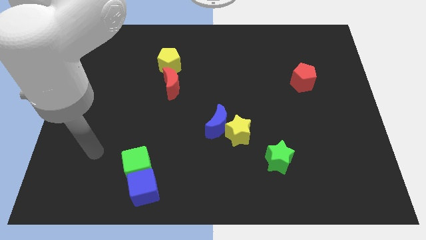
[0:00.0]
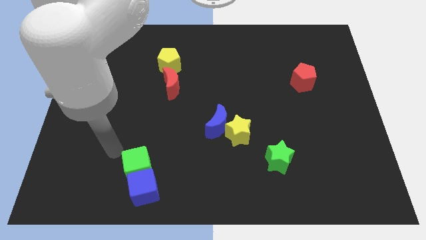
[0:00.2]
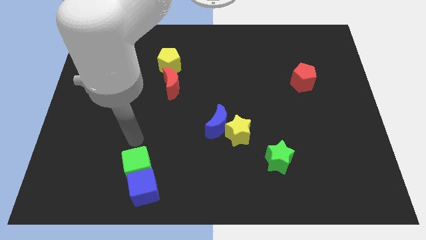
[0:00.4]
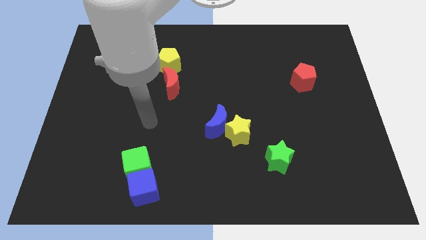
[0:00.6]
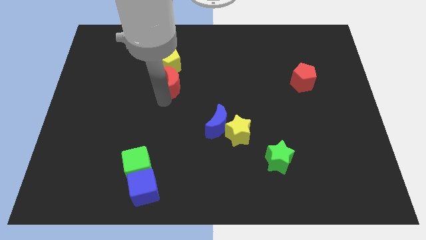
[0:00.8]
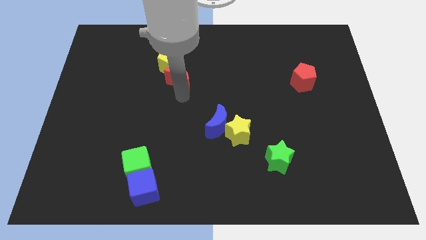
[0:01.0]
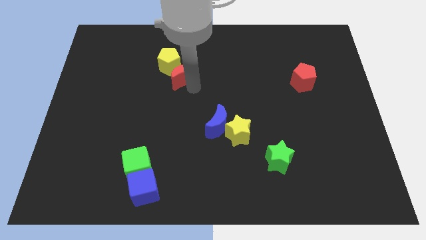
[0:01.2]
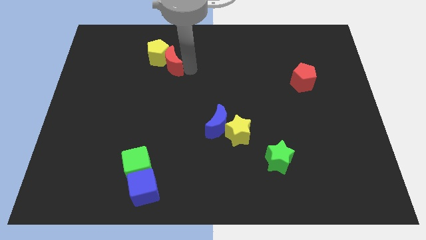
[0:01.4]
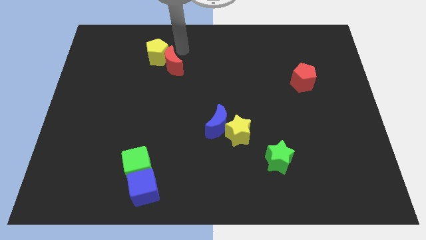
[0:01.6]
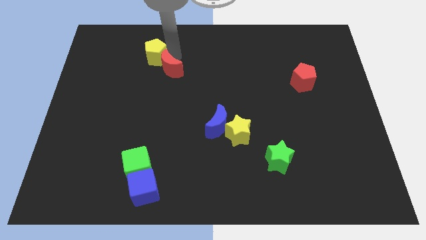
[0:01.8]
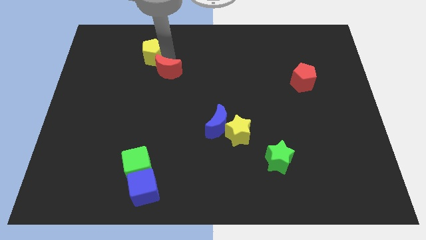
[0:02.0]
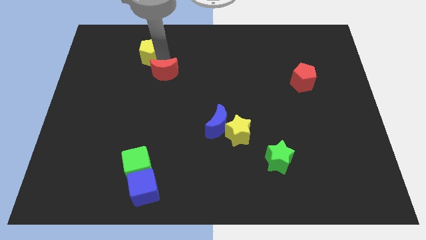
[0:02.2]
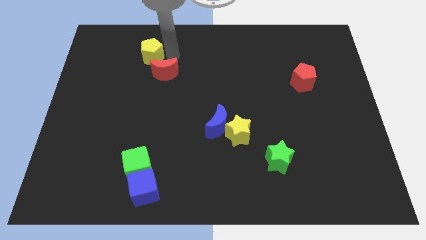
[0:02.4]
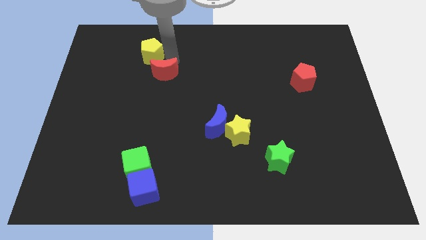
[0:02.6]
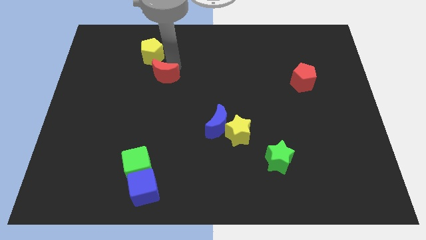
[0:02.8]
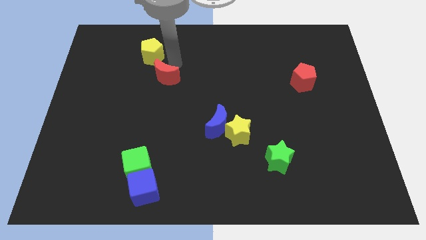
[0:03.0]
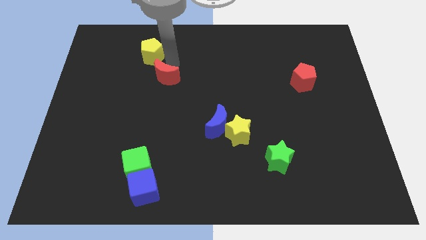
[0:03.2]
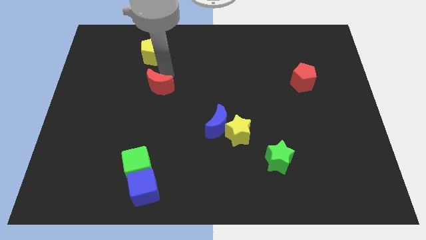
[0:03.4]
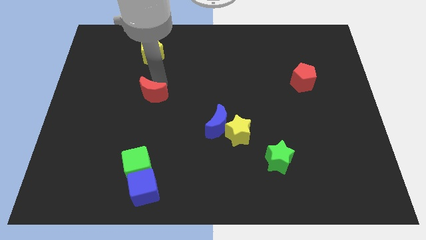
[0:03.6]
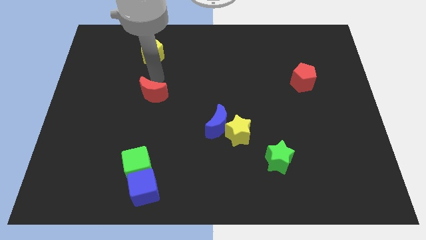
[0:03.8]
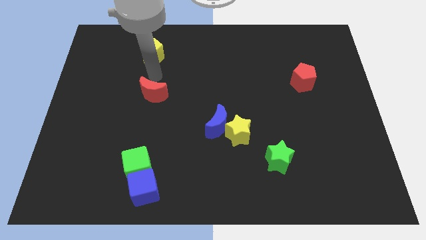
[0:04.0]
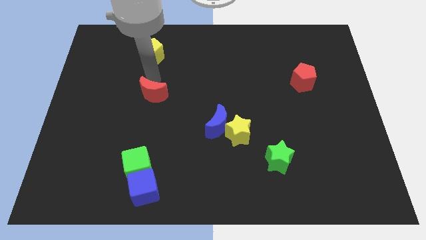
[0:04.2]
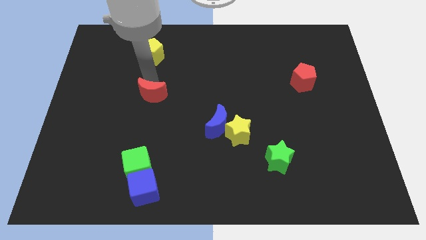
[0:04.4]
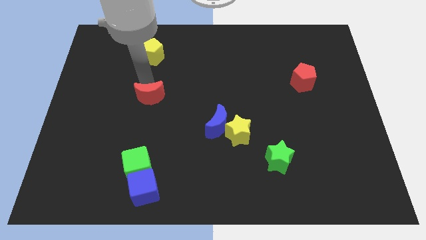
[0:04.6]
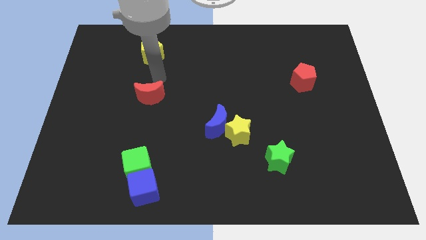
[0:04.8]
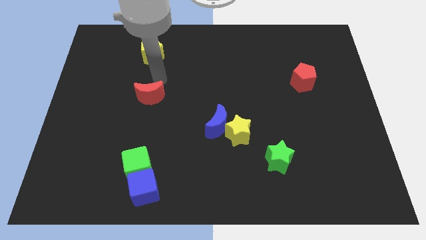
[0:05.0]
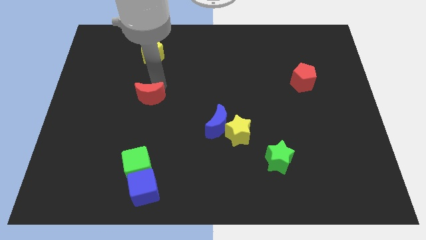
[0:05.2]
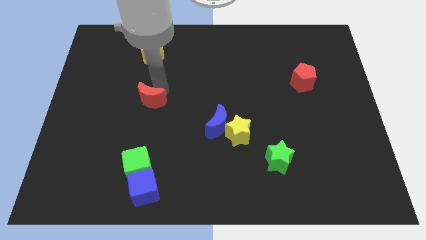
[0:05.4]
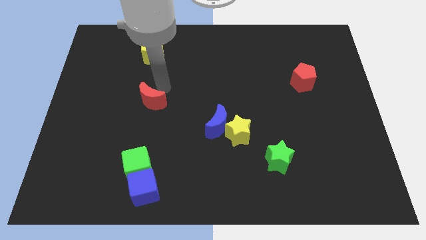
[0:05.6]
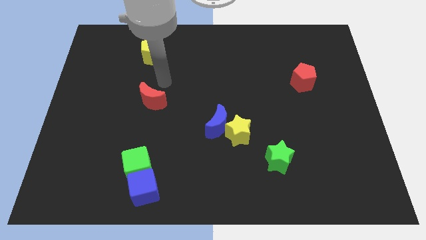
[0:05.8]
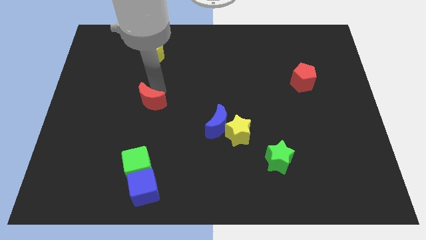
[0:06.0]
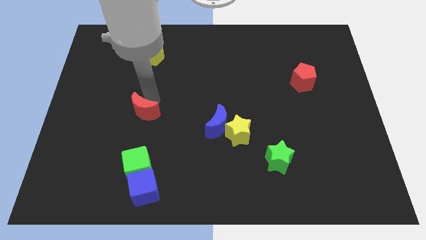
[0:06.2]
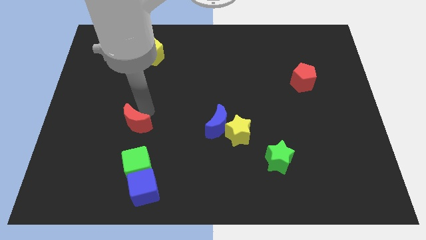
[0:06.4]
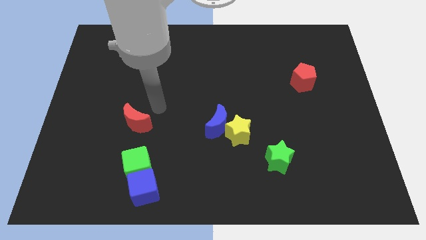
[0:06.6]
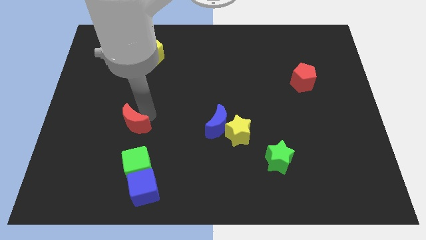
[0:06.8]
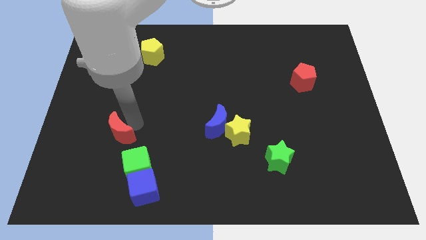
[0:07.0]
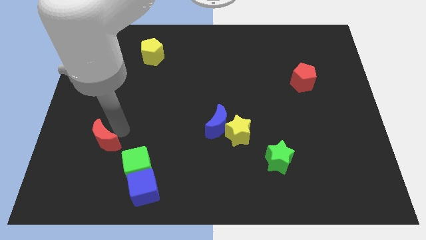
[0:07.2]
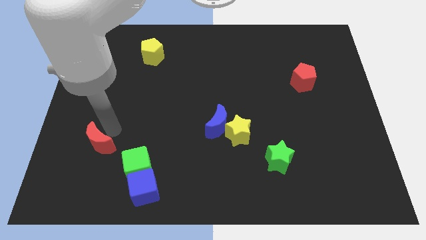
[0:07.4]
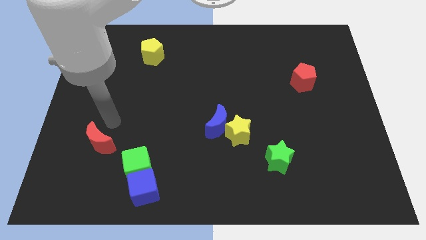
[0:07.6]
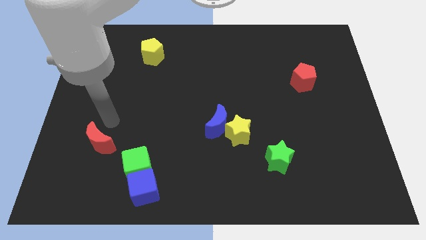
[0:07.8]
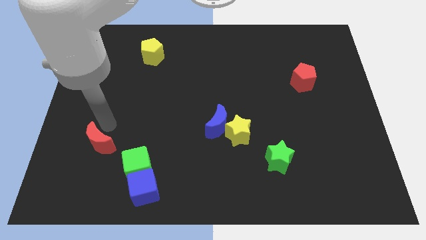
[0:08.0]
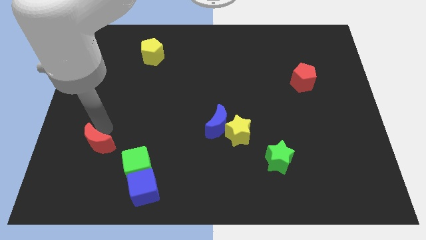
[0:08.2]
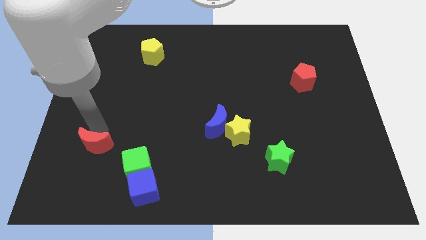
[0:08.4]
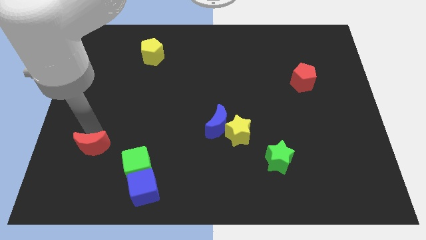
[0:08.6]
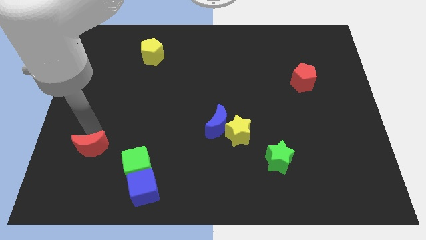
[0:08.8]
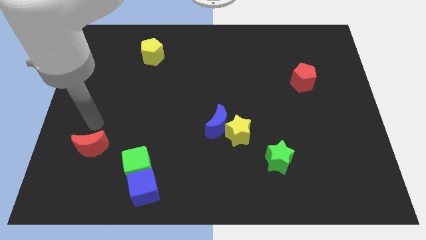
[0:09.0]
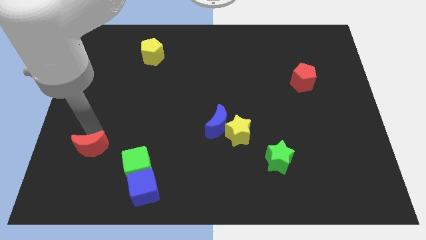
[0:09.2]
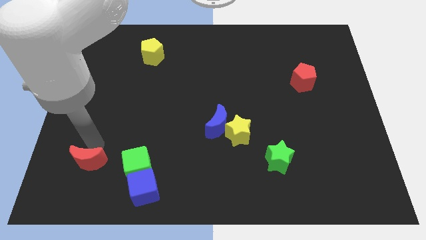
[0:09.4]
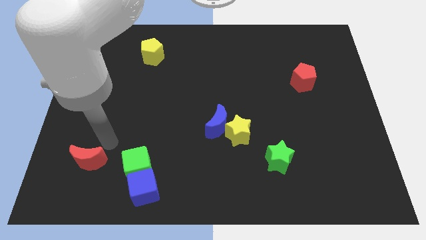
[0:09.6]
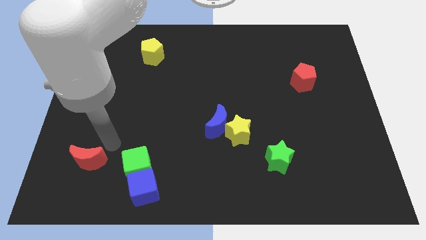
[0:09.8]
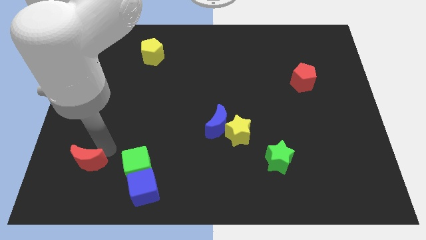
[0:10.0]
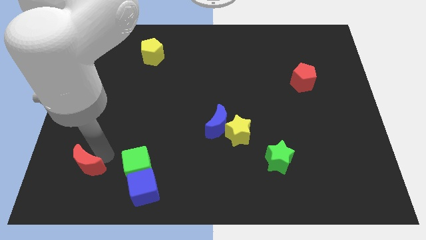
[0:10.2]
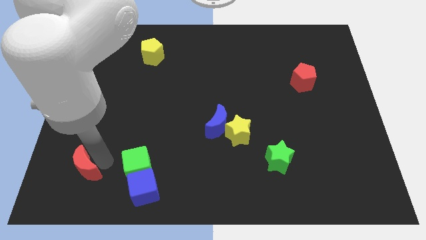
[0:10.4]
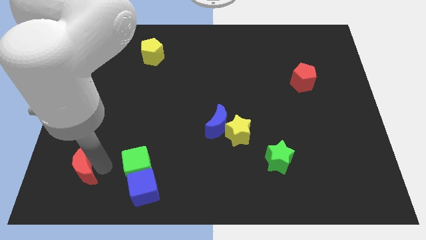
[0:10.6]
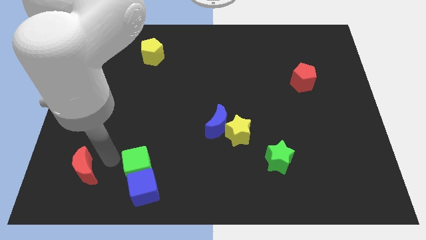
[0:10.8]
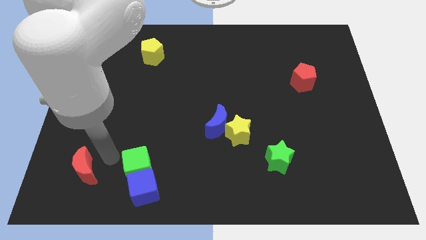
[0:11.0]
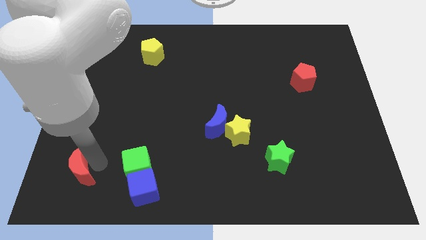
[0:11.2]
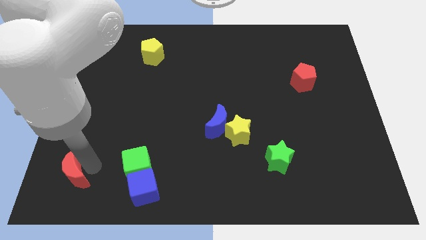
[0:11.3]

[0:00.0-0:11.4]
push the red moon to the lower left corner

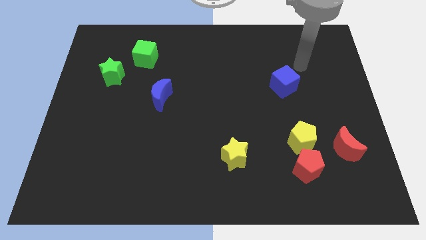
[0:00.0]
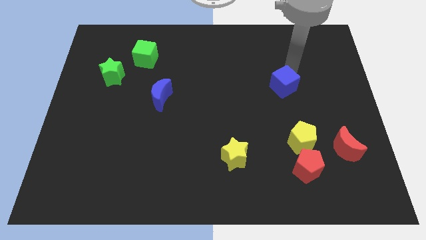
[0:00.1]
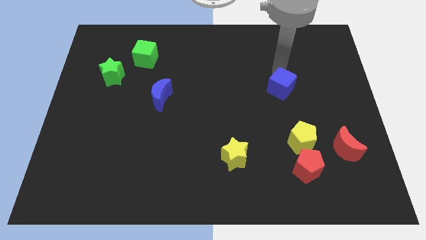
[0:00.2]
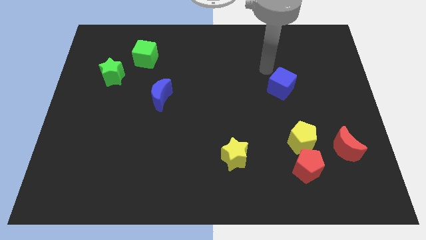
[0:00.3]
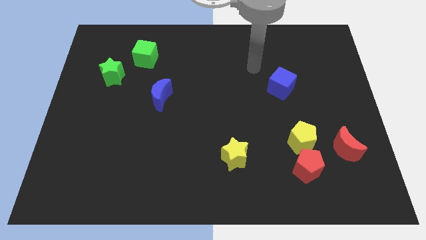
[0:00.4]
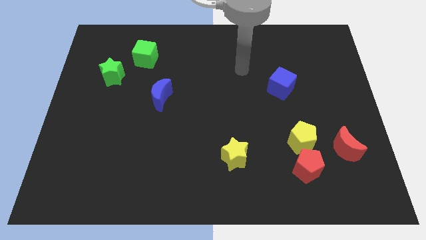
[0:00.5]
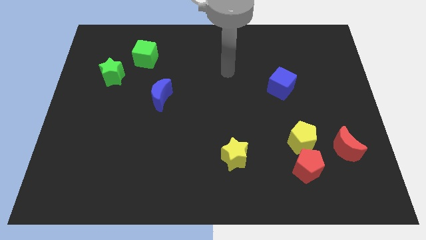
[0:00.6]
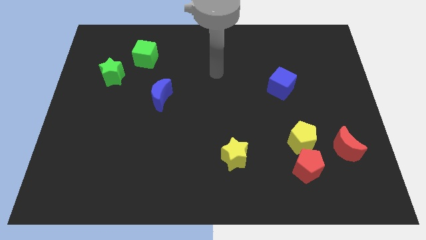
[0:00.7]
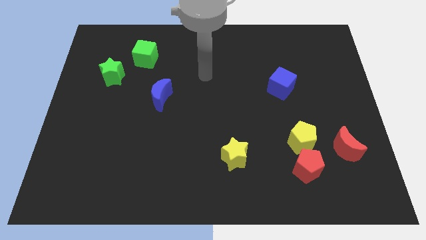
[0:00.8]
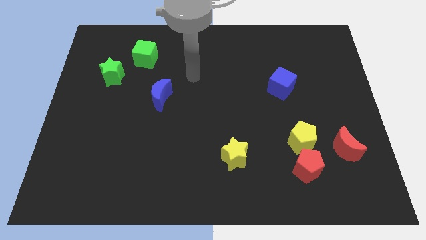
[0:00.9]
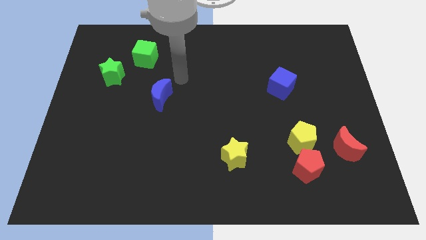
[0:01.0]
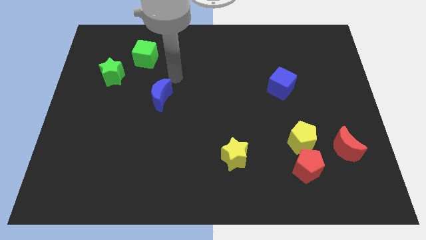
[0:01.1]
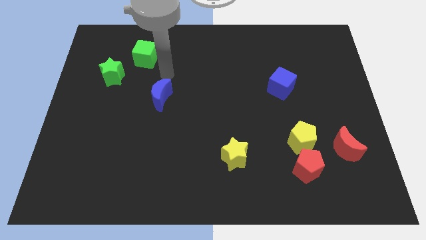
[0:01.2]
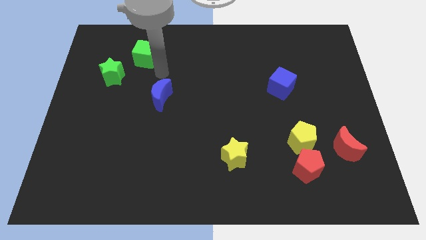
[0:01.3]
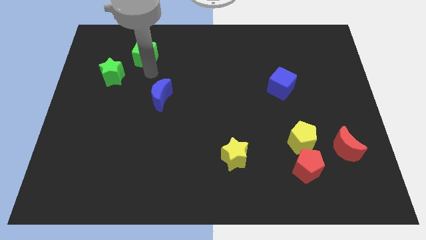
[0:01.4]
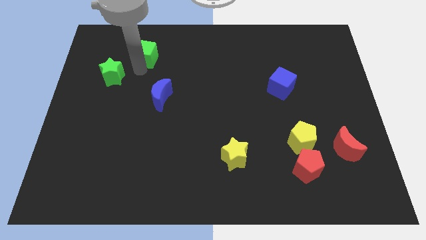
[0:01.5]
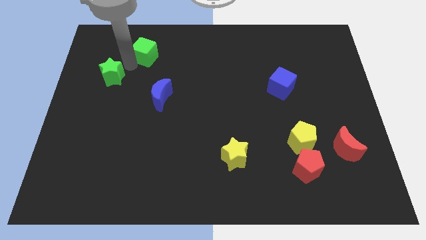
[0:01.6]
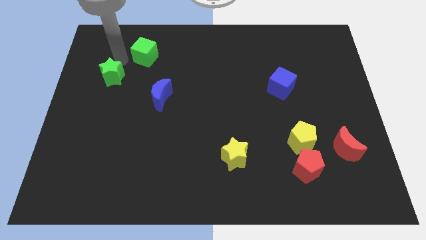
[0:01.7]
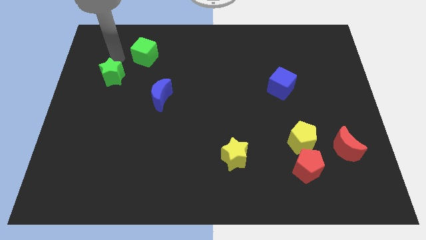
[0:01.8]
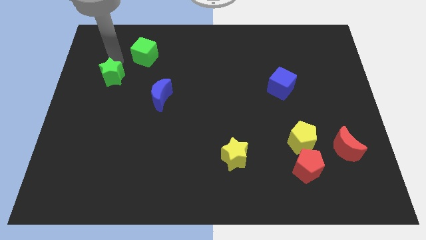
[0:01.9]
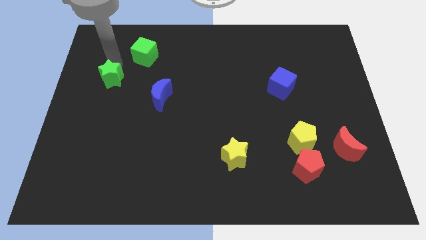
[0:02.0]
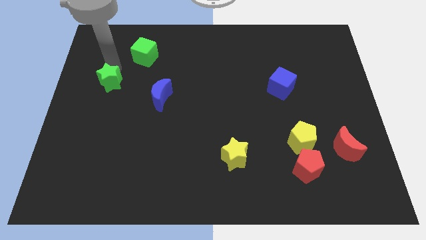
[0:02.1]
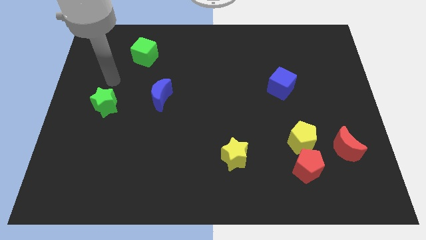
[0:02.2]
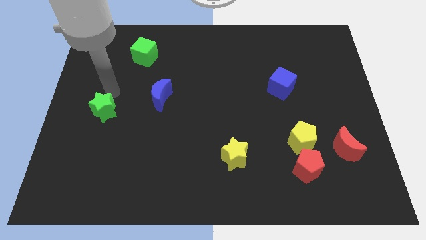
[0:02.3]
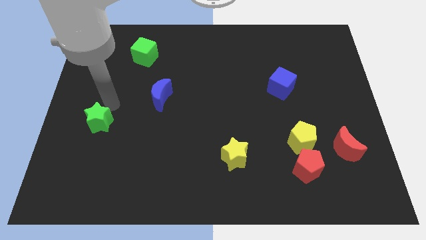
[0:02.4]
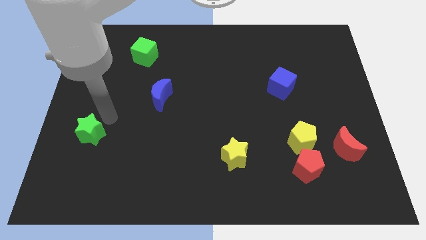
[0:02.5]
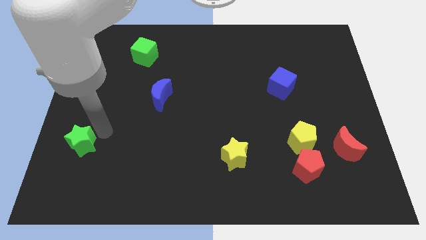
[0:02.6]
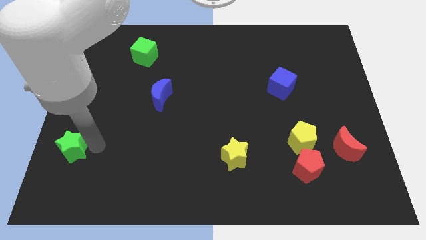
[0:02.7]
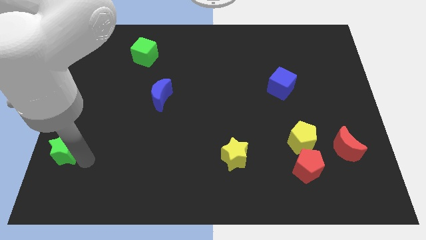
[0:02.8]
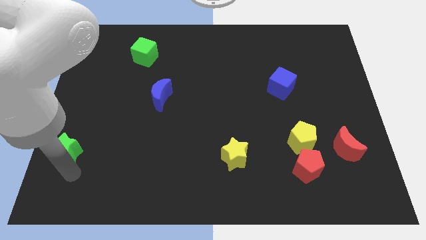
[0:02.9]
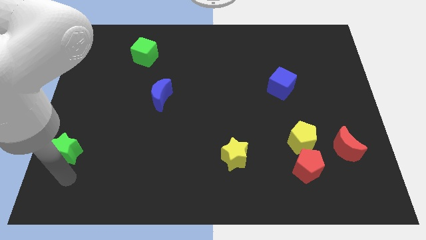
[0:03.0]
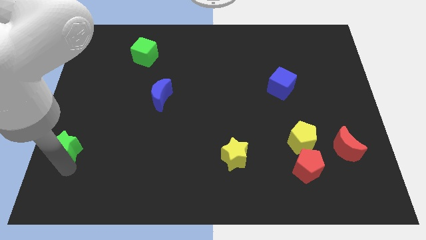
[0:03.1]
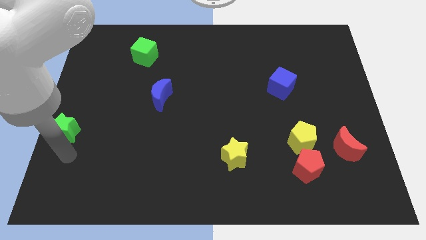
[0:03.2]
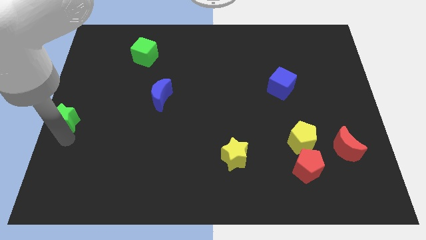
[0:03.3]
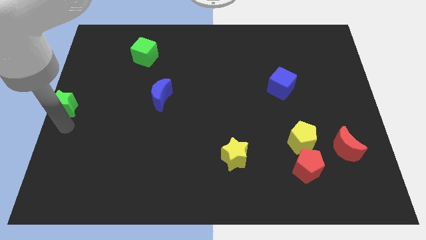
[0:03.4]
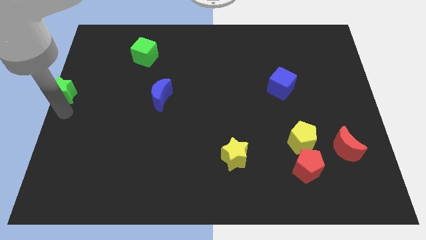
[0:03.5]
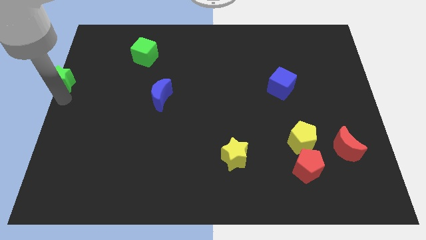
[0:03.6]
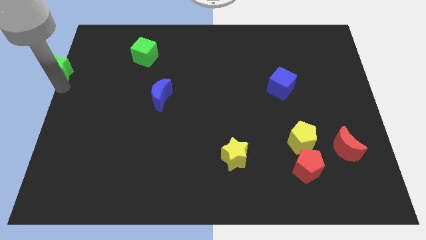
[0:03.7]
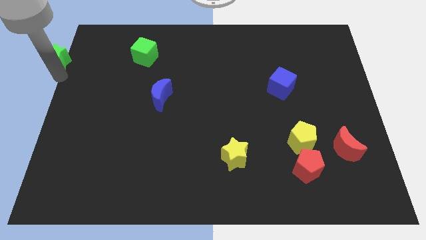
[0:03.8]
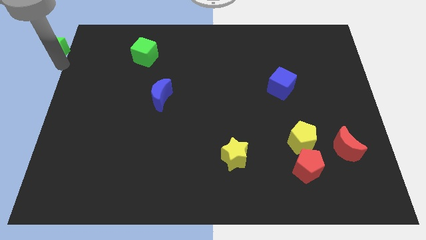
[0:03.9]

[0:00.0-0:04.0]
push the green star to the top left
